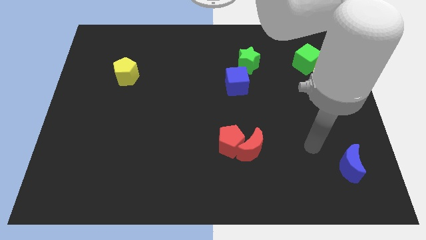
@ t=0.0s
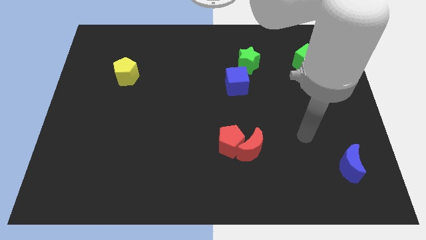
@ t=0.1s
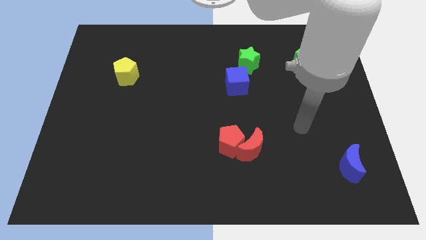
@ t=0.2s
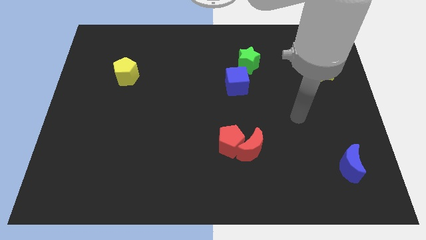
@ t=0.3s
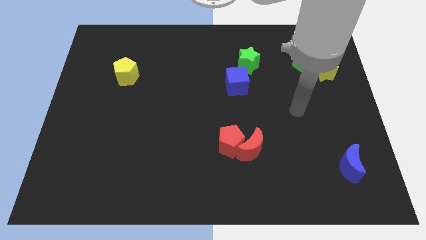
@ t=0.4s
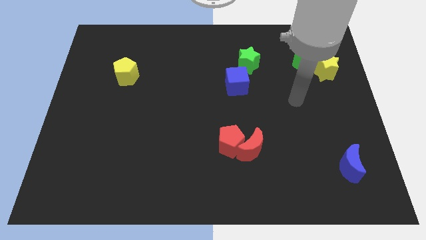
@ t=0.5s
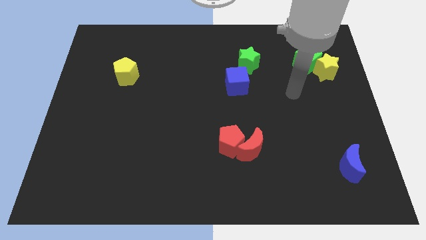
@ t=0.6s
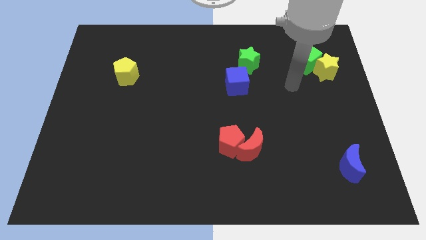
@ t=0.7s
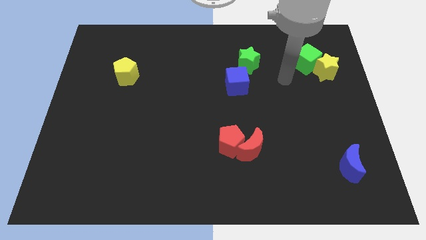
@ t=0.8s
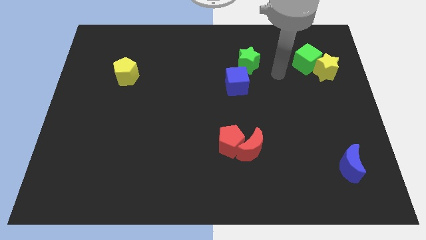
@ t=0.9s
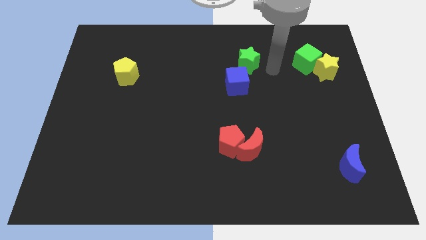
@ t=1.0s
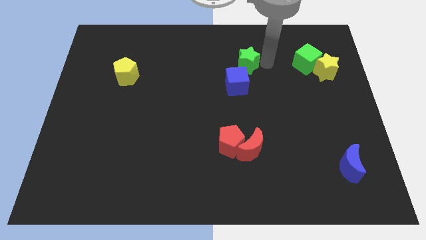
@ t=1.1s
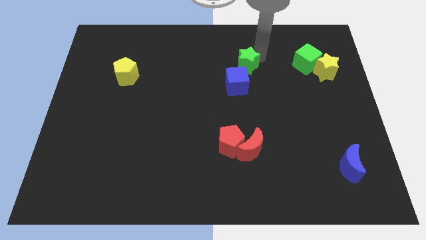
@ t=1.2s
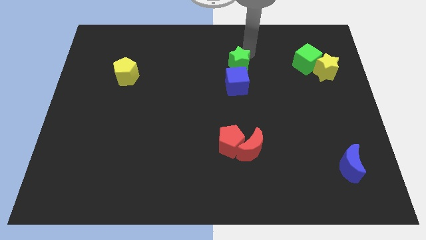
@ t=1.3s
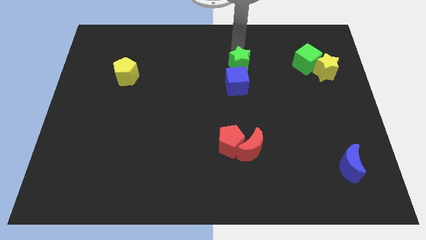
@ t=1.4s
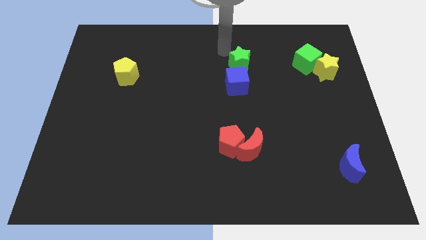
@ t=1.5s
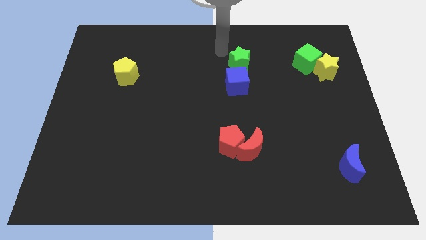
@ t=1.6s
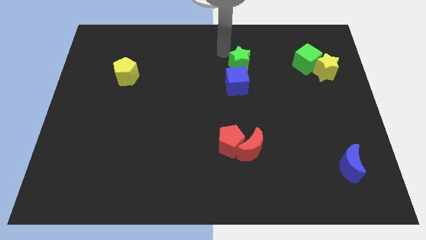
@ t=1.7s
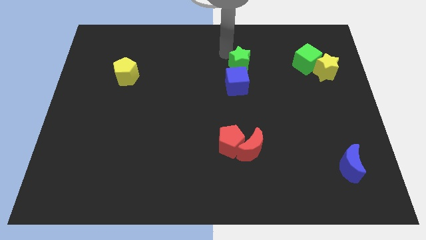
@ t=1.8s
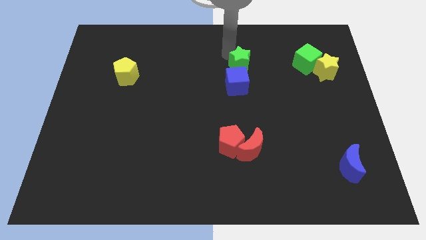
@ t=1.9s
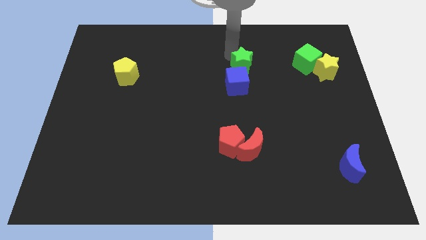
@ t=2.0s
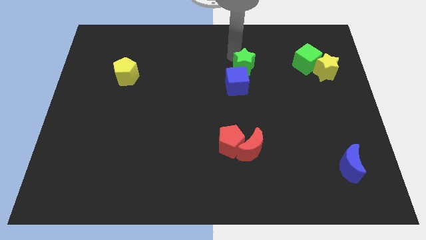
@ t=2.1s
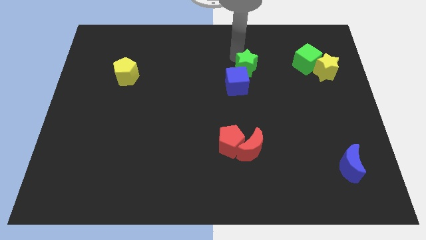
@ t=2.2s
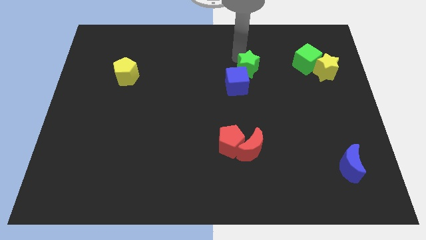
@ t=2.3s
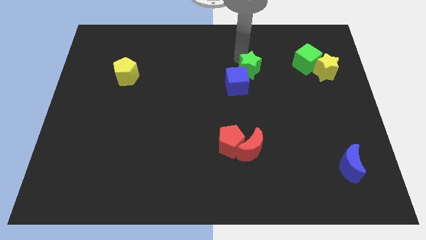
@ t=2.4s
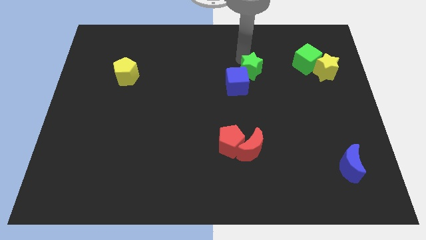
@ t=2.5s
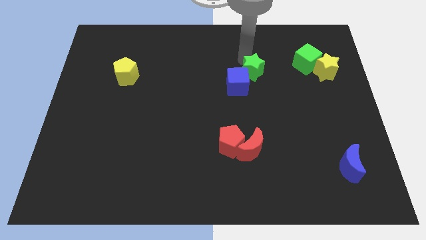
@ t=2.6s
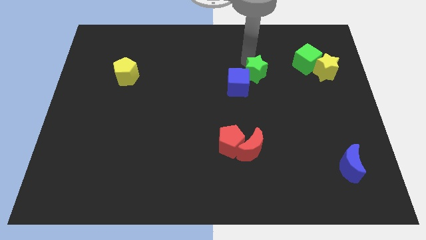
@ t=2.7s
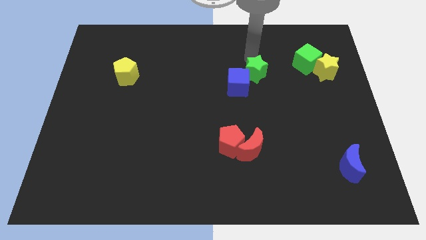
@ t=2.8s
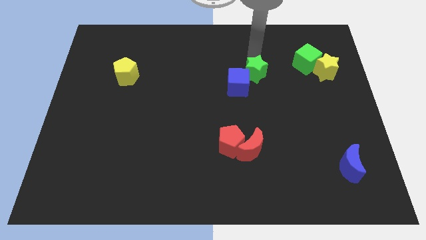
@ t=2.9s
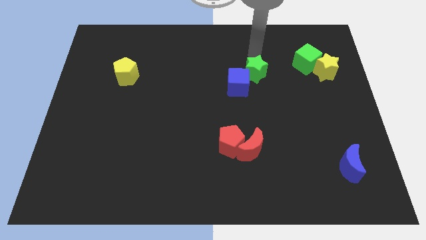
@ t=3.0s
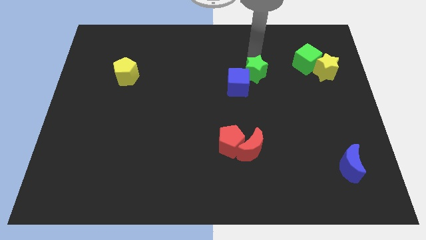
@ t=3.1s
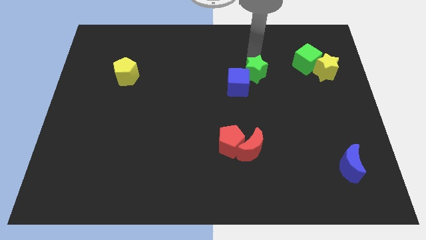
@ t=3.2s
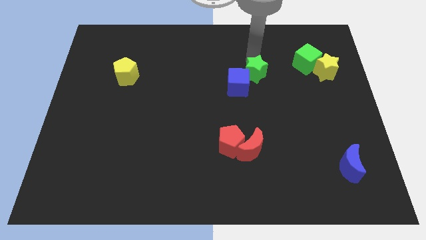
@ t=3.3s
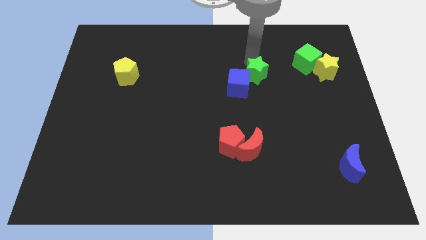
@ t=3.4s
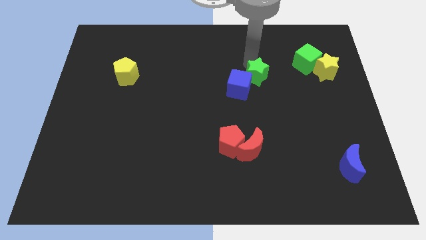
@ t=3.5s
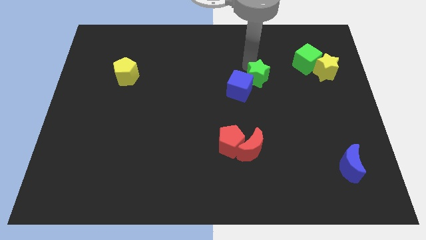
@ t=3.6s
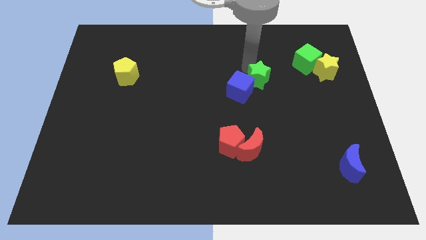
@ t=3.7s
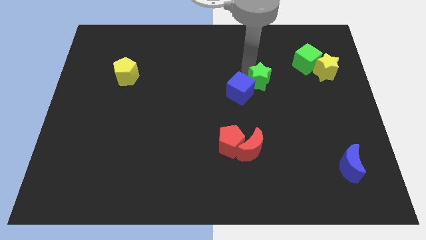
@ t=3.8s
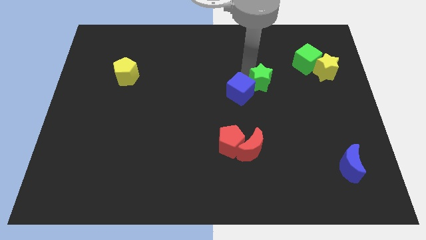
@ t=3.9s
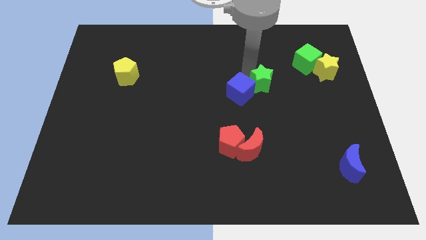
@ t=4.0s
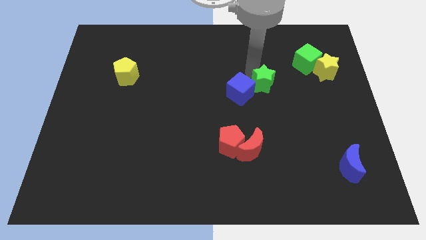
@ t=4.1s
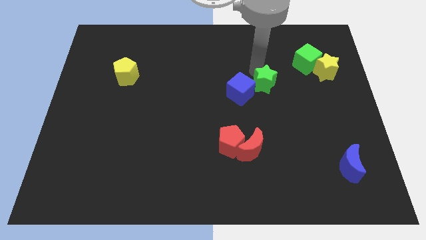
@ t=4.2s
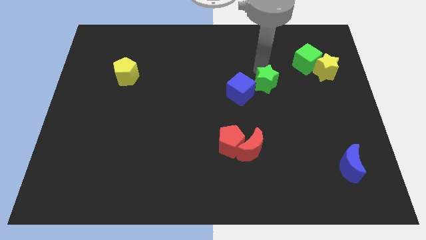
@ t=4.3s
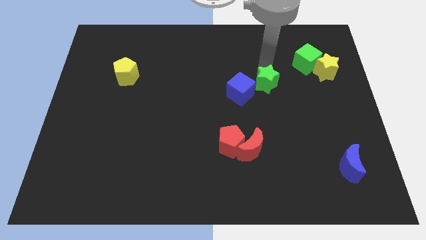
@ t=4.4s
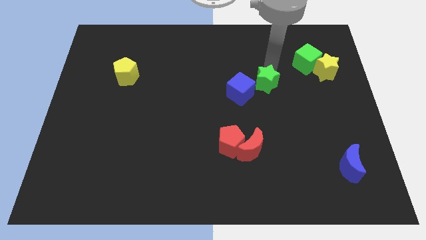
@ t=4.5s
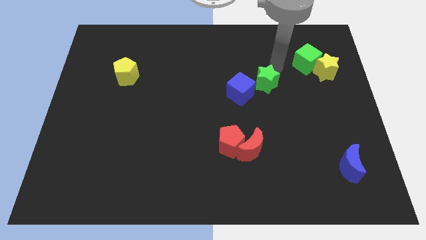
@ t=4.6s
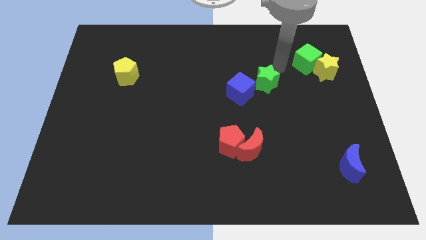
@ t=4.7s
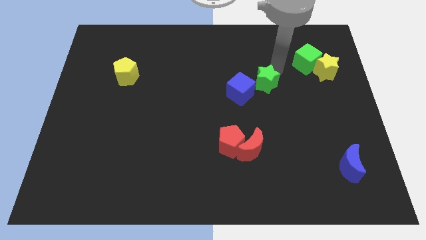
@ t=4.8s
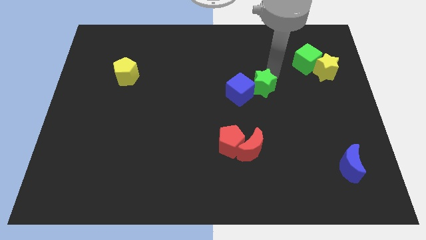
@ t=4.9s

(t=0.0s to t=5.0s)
slightly push the green star downwards

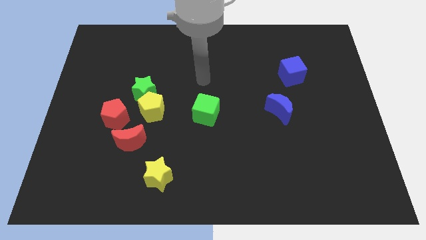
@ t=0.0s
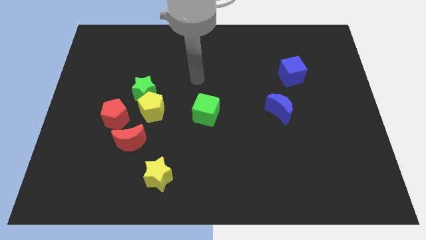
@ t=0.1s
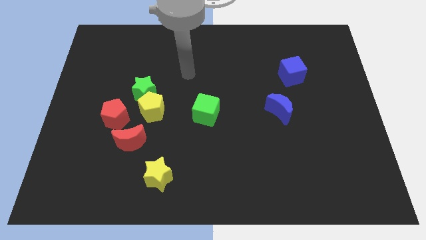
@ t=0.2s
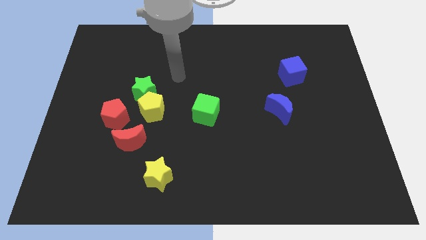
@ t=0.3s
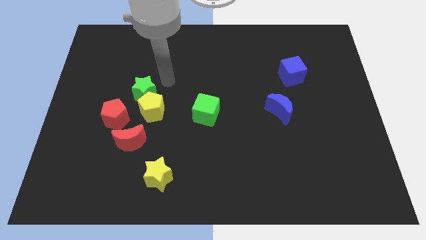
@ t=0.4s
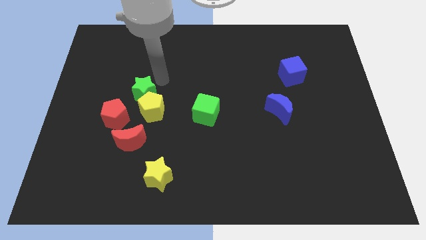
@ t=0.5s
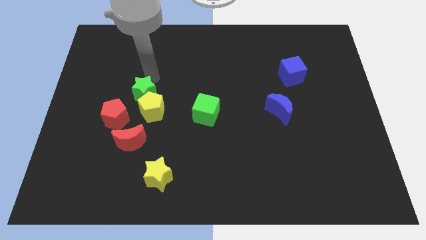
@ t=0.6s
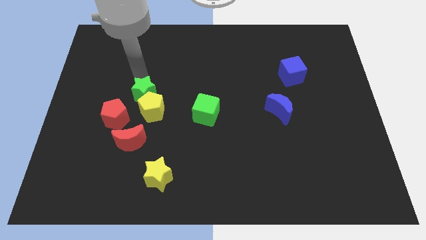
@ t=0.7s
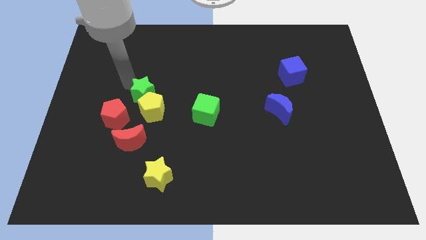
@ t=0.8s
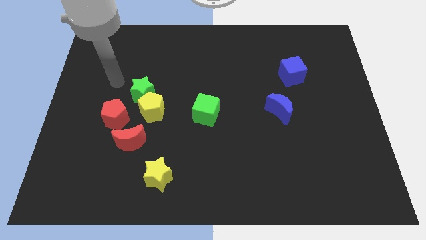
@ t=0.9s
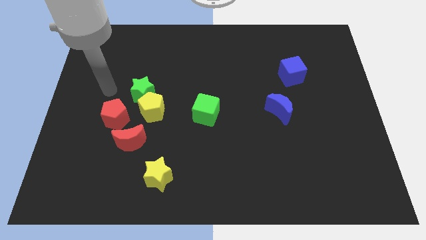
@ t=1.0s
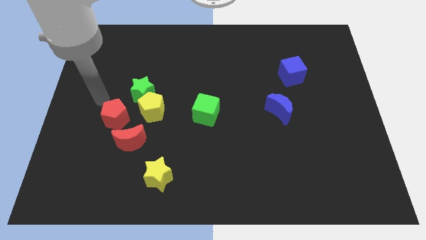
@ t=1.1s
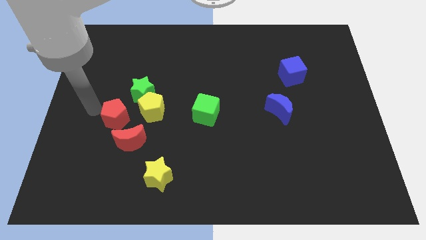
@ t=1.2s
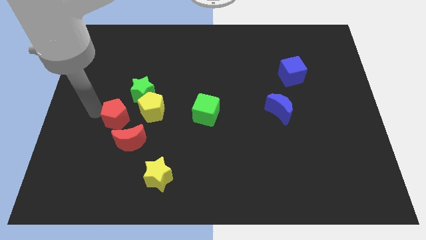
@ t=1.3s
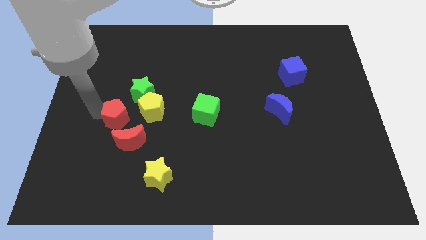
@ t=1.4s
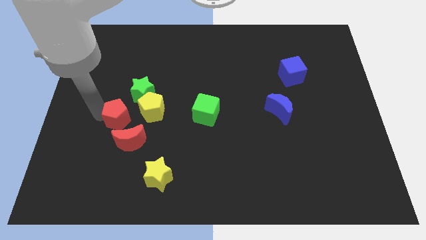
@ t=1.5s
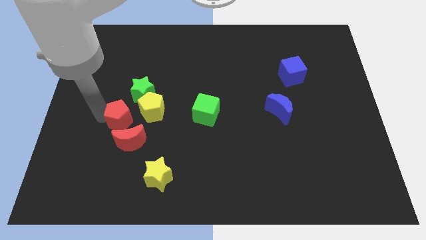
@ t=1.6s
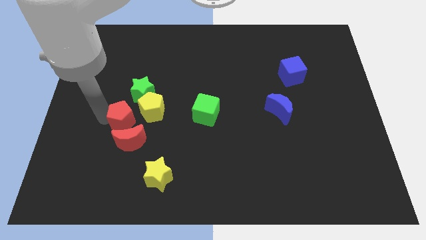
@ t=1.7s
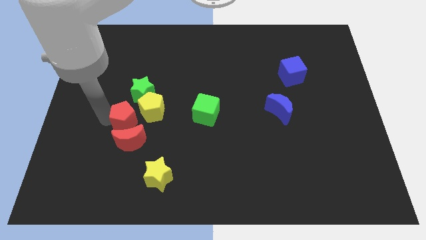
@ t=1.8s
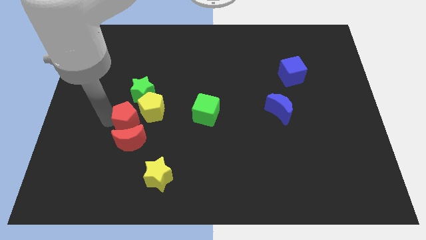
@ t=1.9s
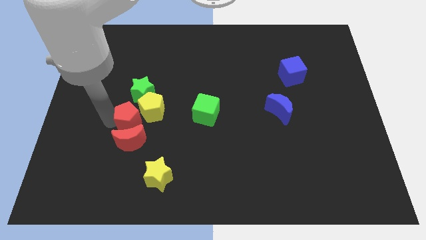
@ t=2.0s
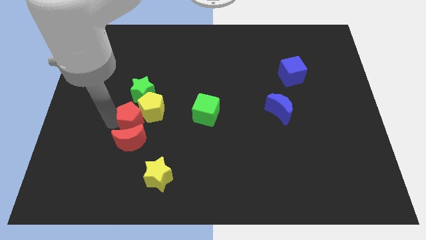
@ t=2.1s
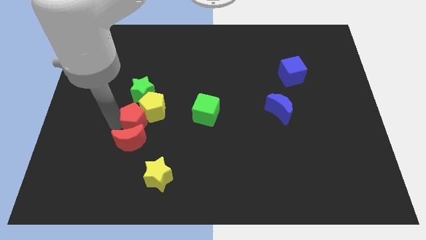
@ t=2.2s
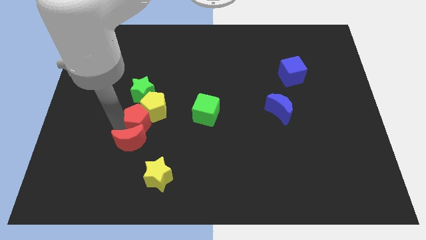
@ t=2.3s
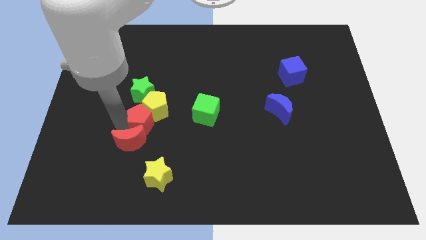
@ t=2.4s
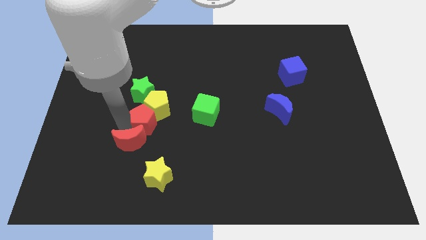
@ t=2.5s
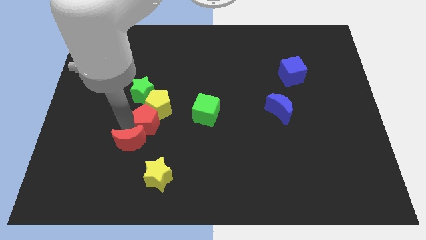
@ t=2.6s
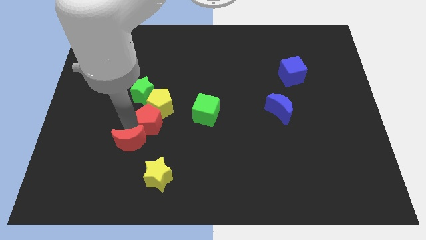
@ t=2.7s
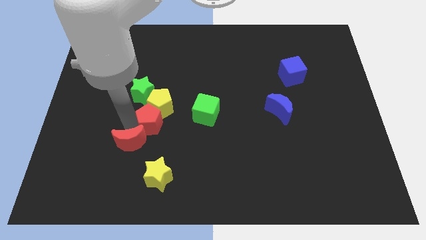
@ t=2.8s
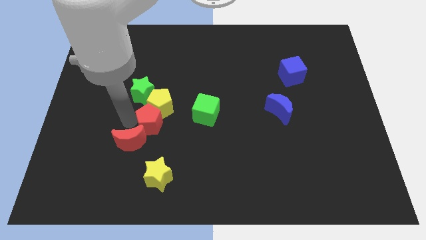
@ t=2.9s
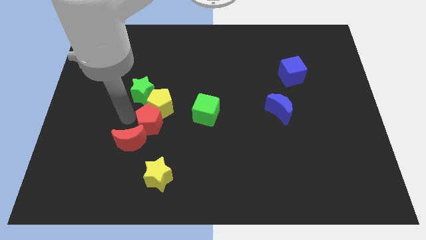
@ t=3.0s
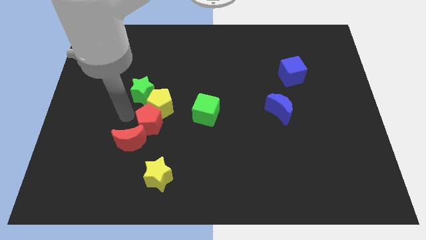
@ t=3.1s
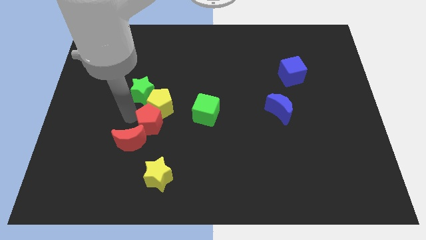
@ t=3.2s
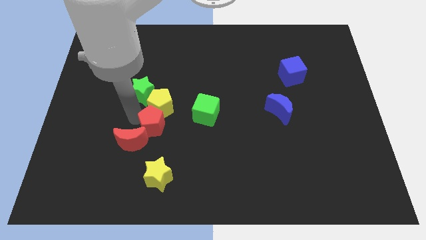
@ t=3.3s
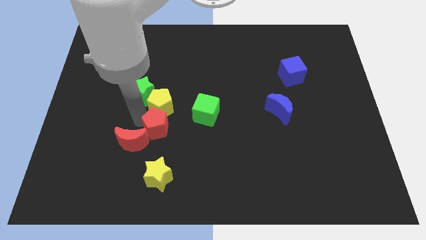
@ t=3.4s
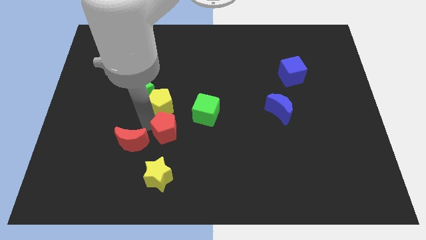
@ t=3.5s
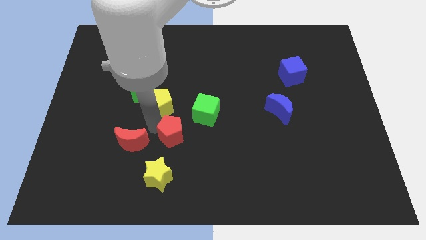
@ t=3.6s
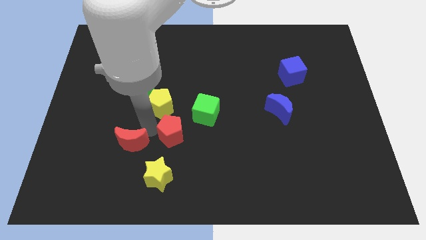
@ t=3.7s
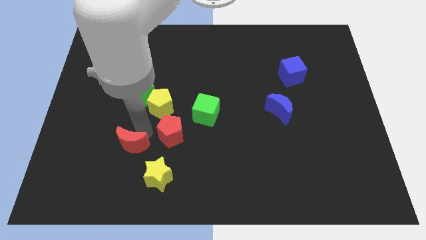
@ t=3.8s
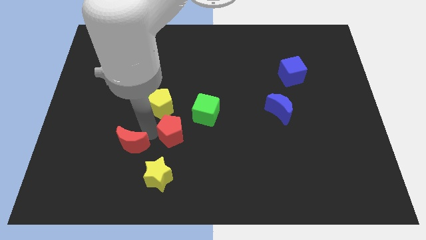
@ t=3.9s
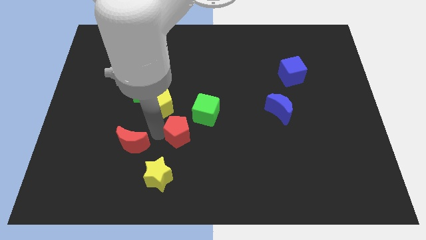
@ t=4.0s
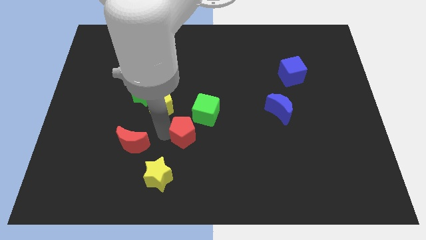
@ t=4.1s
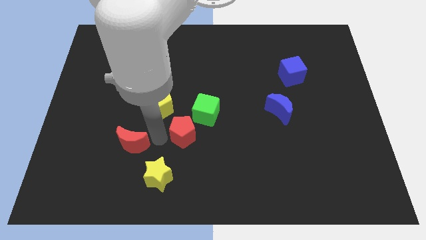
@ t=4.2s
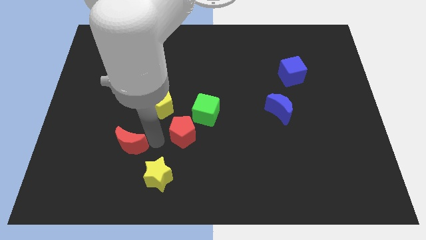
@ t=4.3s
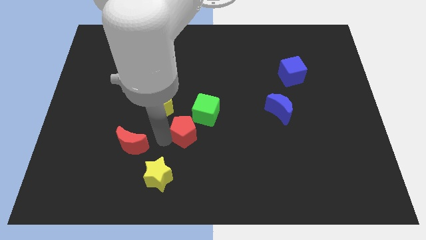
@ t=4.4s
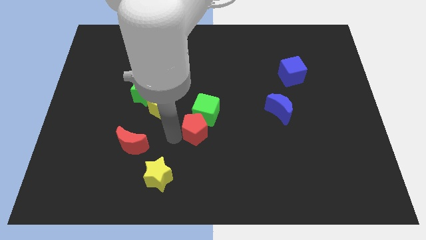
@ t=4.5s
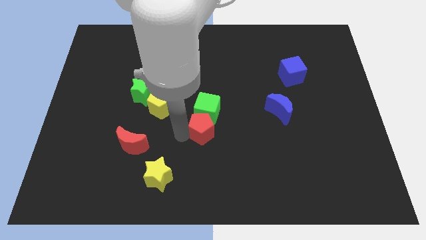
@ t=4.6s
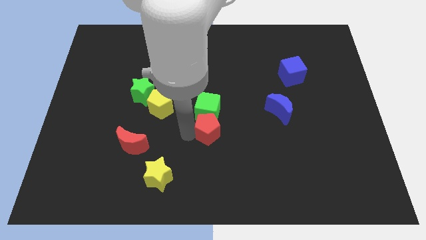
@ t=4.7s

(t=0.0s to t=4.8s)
push the red pentagon right
